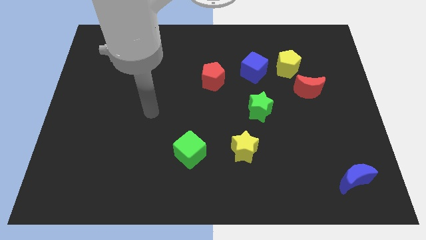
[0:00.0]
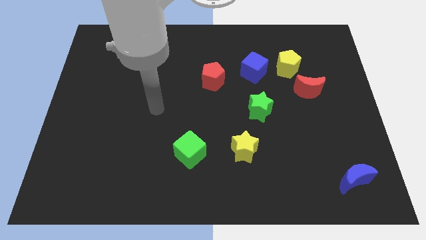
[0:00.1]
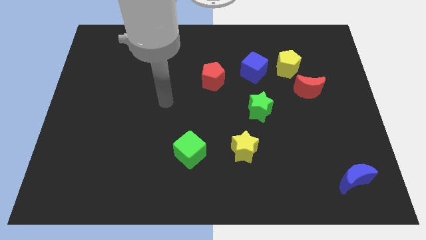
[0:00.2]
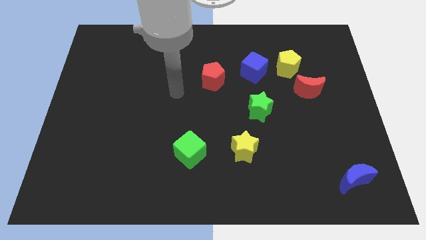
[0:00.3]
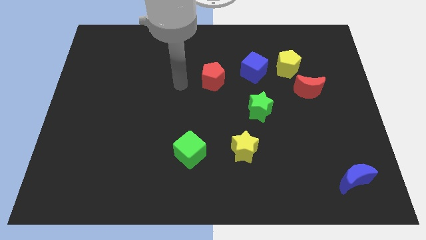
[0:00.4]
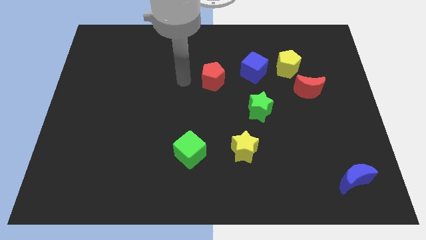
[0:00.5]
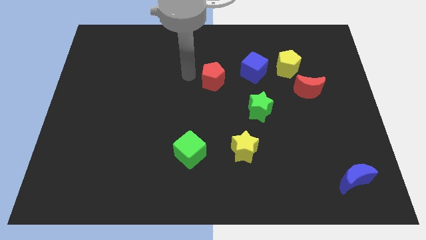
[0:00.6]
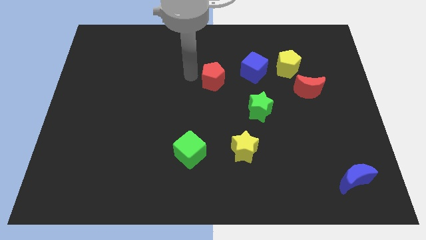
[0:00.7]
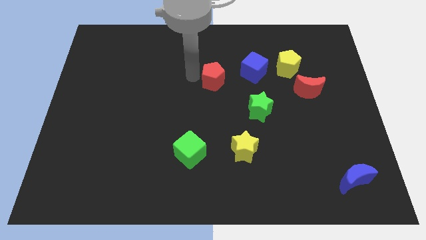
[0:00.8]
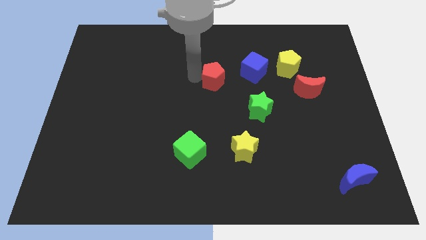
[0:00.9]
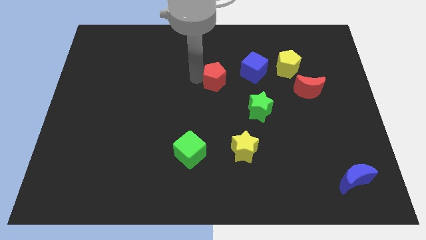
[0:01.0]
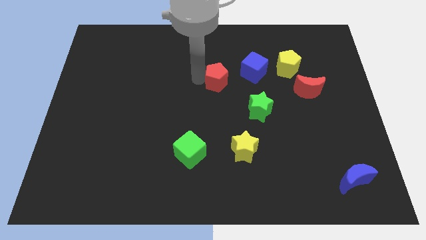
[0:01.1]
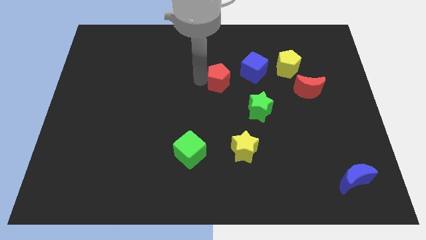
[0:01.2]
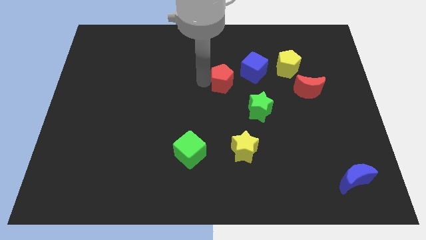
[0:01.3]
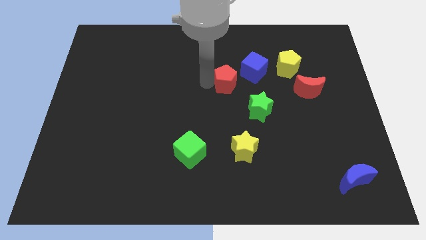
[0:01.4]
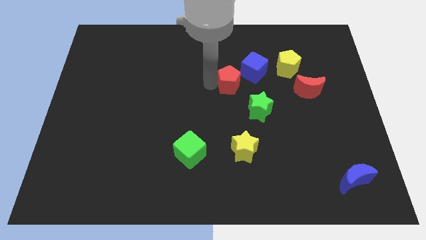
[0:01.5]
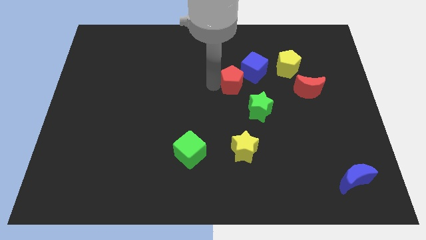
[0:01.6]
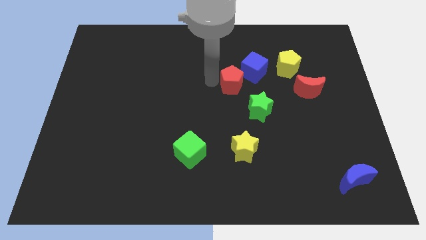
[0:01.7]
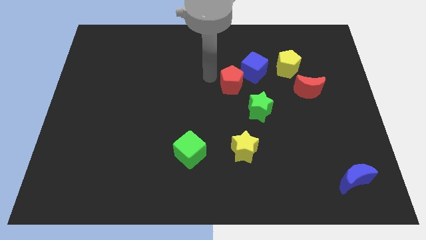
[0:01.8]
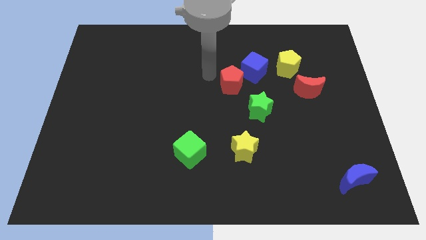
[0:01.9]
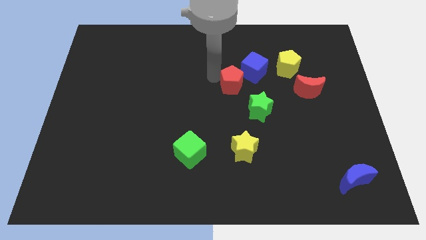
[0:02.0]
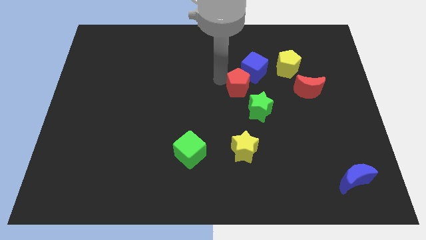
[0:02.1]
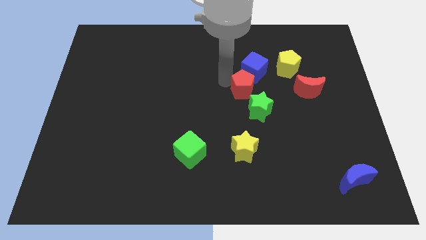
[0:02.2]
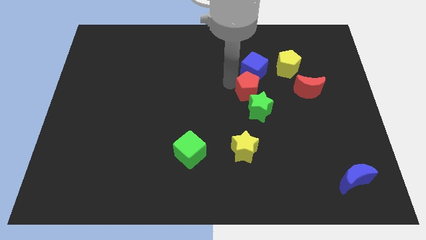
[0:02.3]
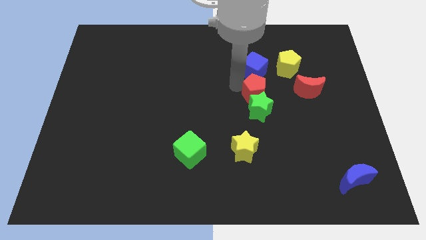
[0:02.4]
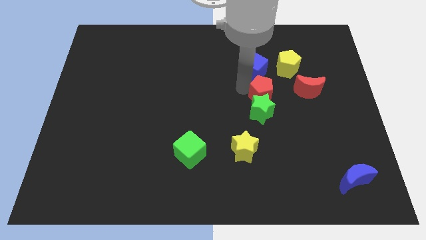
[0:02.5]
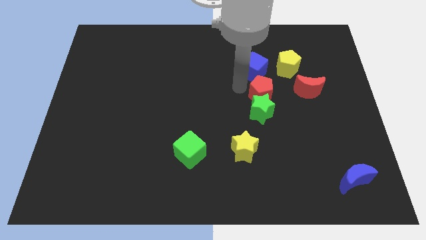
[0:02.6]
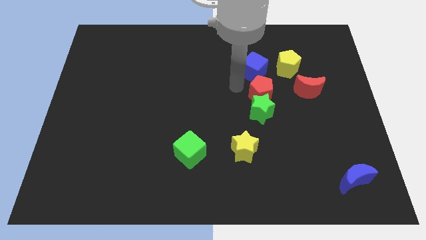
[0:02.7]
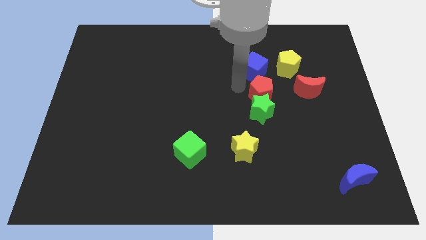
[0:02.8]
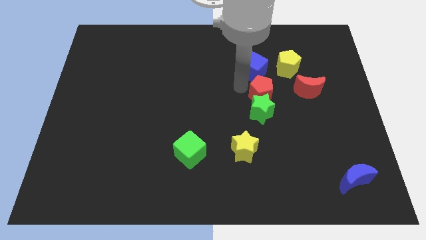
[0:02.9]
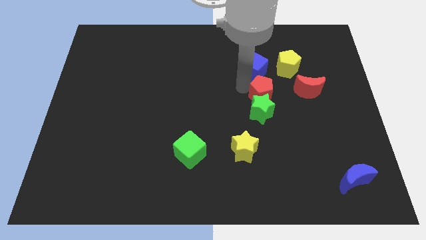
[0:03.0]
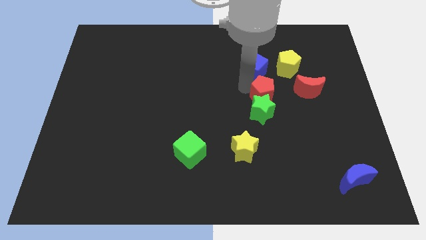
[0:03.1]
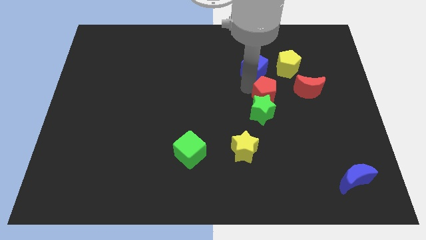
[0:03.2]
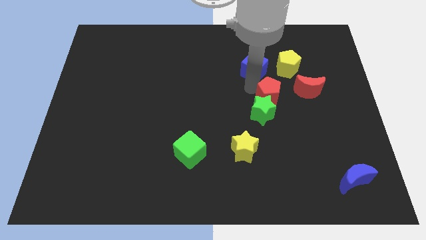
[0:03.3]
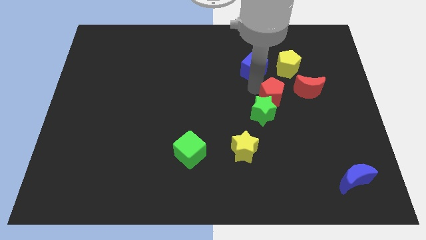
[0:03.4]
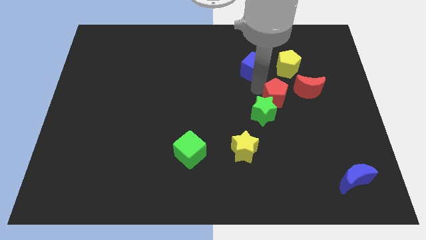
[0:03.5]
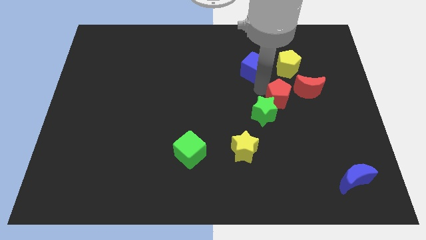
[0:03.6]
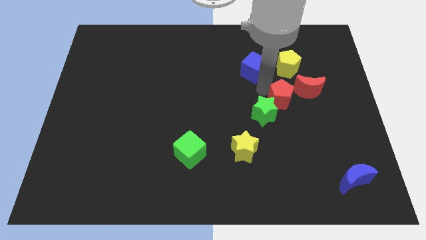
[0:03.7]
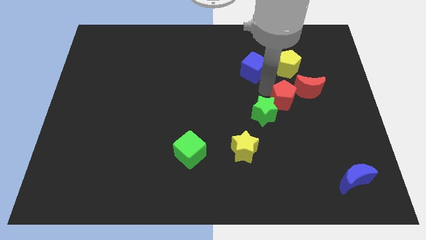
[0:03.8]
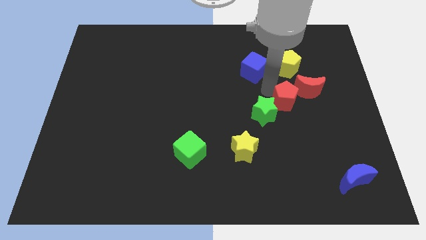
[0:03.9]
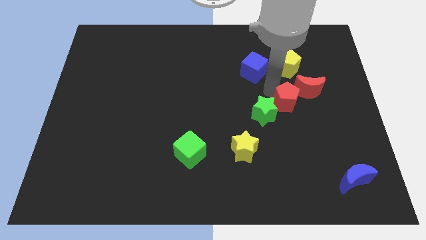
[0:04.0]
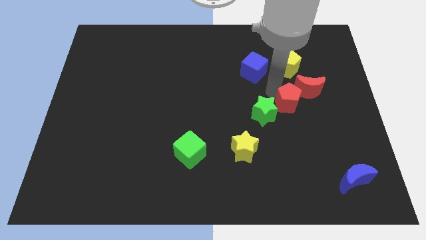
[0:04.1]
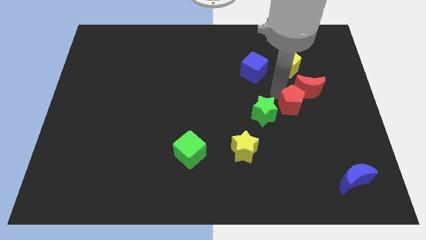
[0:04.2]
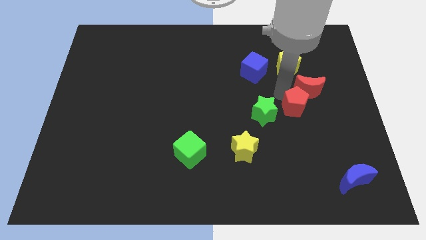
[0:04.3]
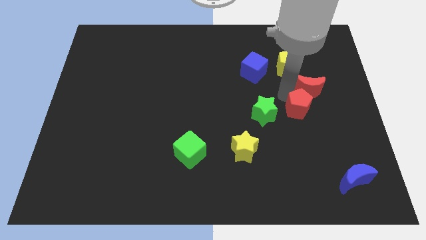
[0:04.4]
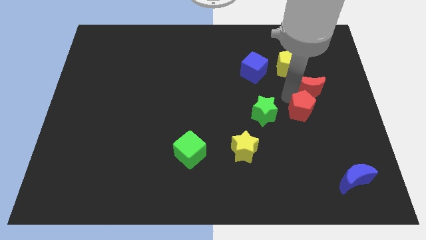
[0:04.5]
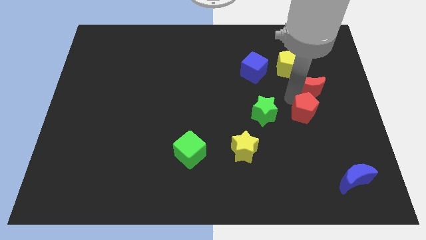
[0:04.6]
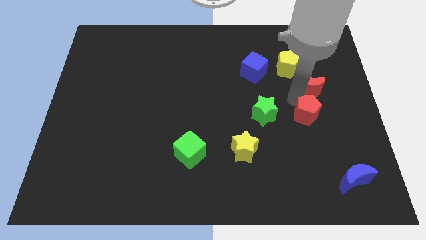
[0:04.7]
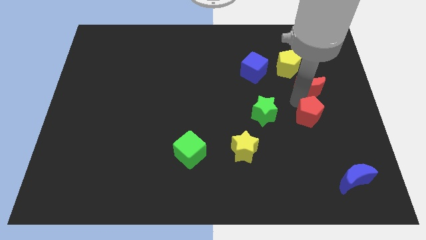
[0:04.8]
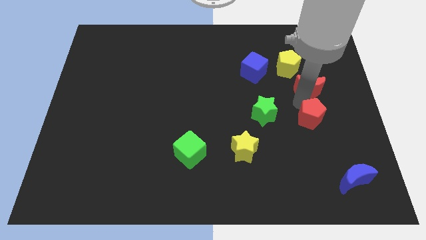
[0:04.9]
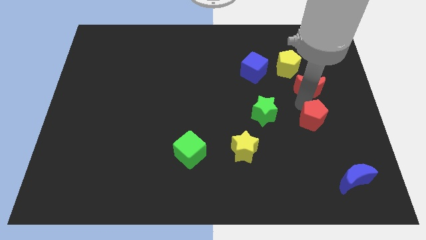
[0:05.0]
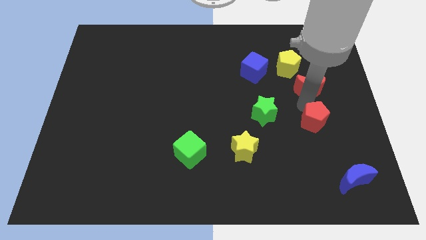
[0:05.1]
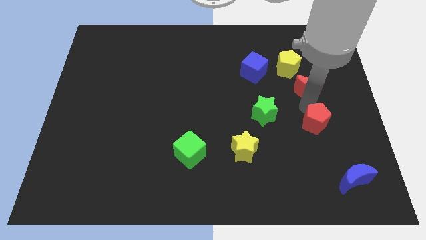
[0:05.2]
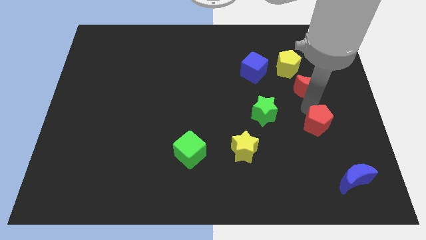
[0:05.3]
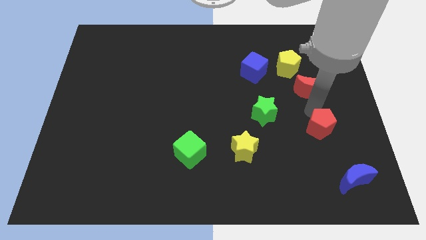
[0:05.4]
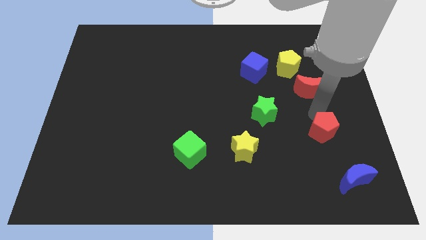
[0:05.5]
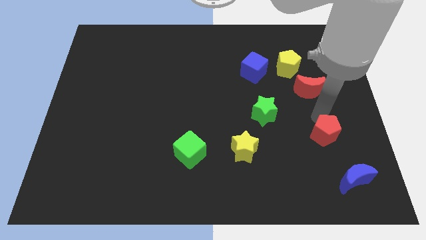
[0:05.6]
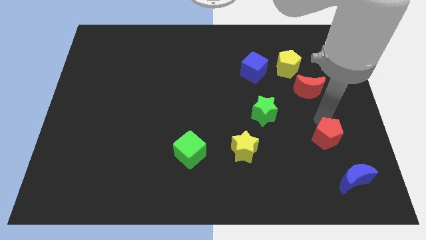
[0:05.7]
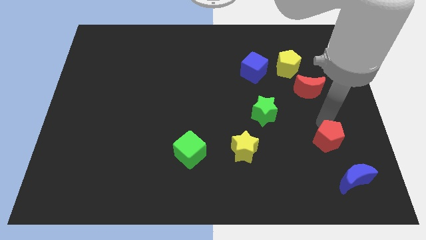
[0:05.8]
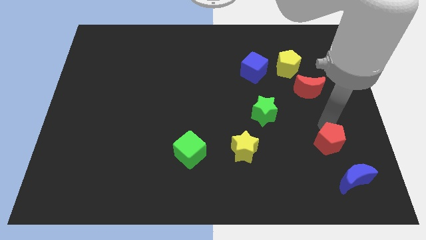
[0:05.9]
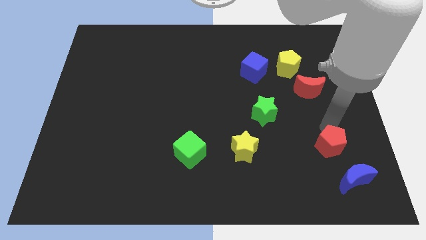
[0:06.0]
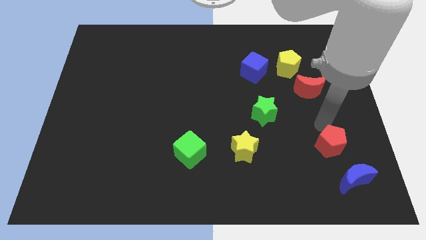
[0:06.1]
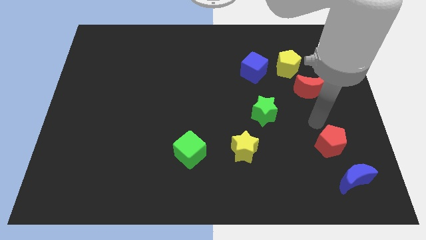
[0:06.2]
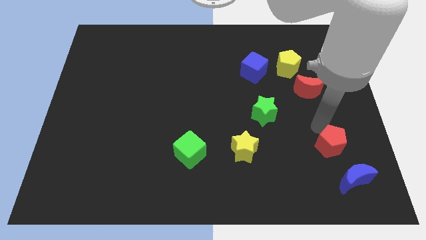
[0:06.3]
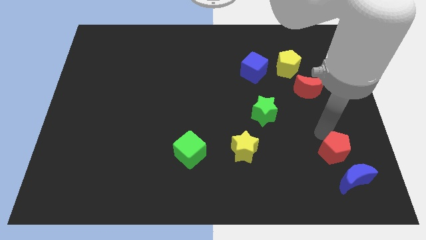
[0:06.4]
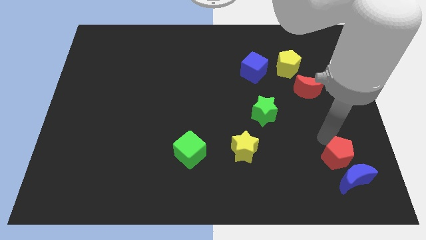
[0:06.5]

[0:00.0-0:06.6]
slide the red pentagon towards the blue moon
